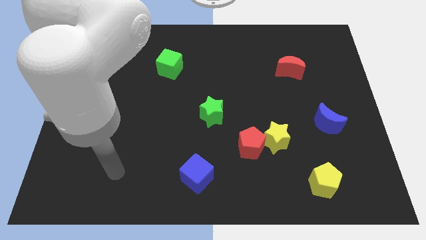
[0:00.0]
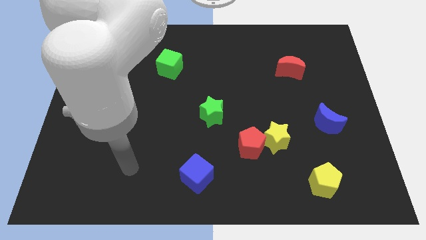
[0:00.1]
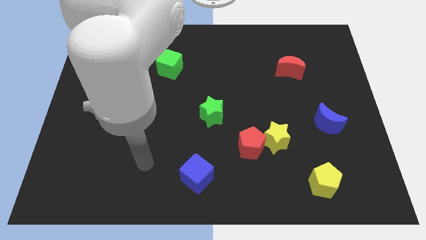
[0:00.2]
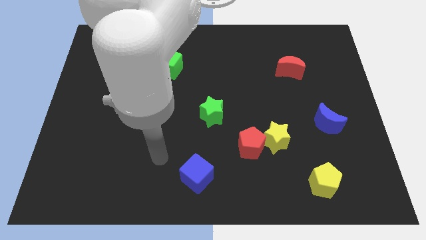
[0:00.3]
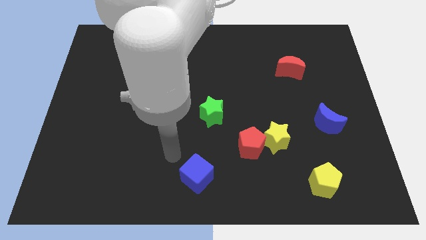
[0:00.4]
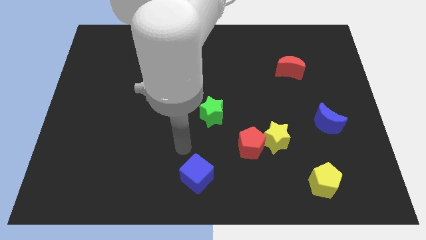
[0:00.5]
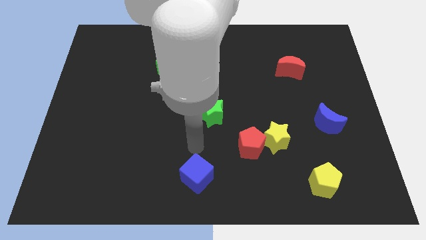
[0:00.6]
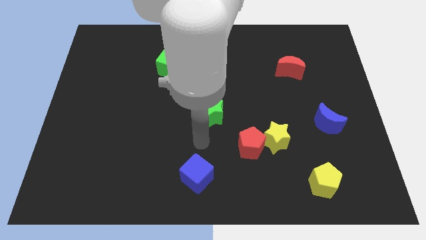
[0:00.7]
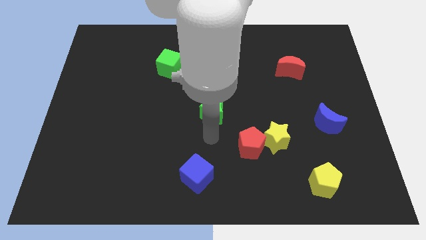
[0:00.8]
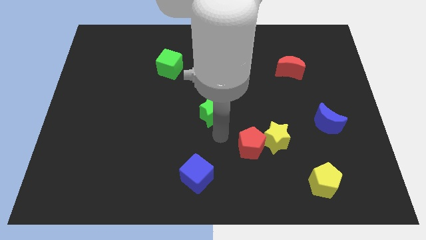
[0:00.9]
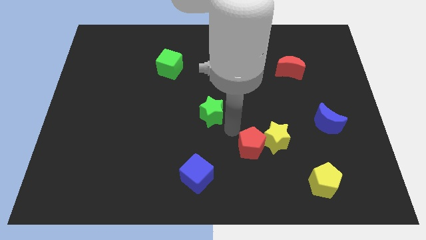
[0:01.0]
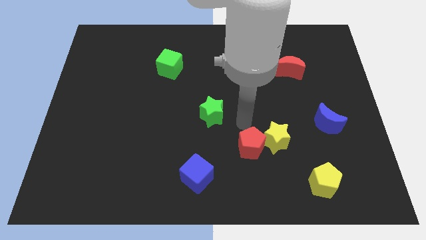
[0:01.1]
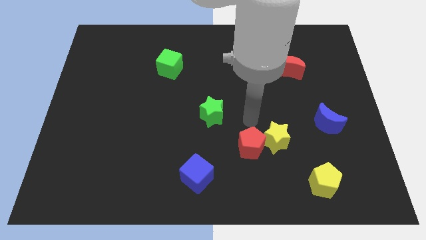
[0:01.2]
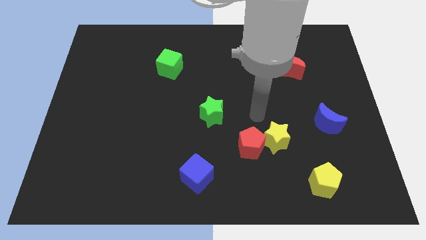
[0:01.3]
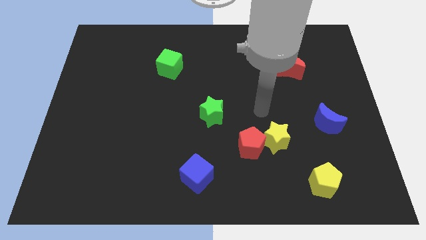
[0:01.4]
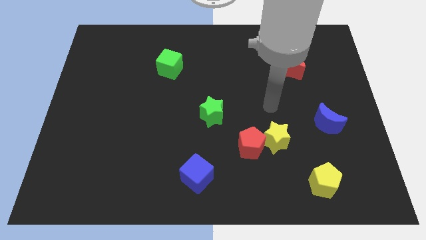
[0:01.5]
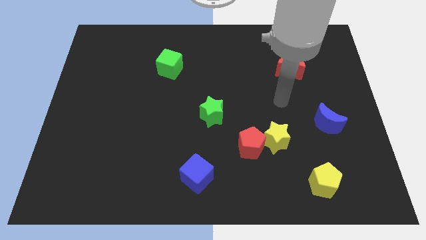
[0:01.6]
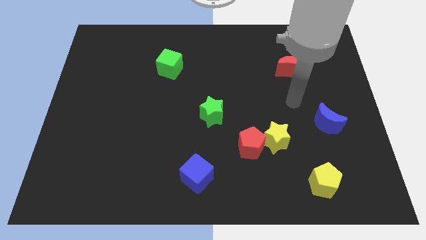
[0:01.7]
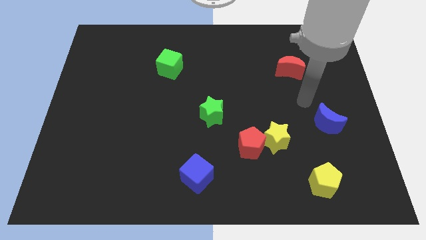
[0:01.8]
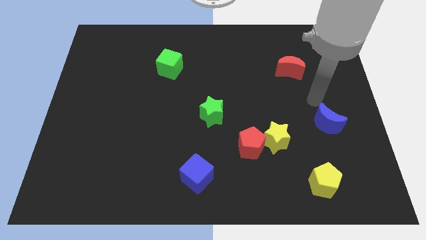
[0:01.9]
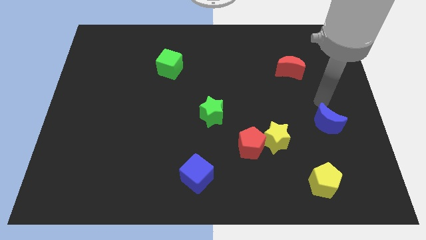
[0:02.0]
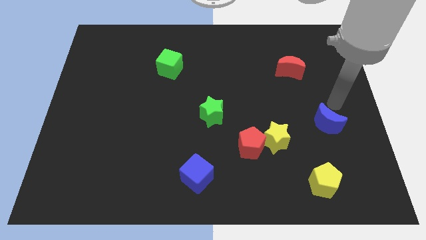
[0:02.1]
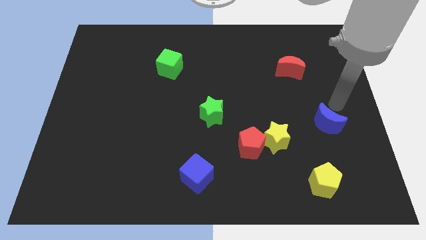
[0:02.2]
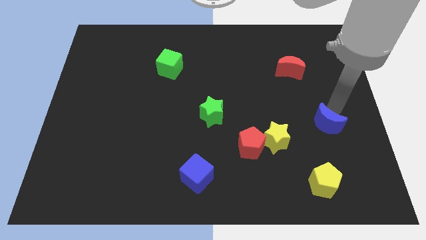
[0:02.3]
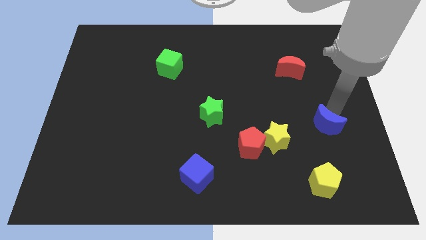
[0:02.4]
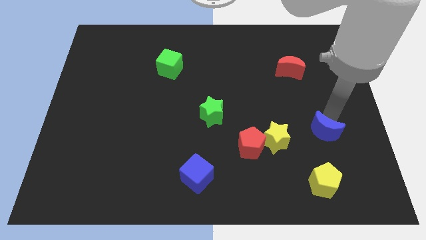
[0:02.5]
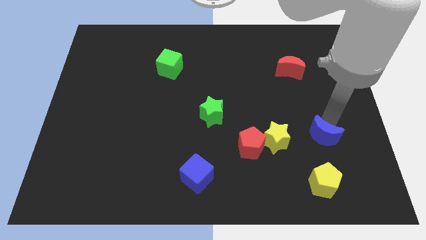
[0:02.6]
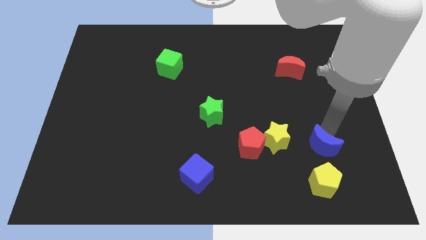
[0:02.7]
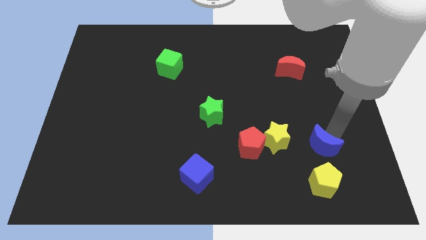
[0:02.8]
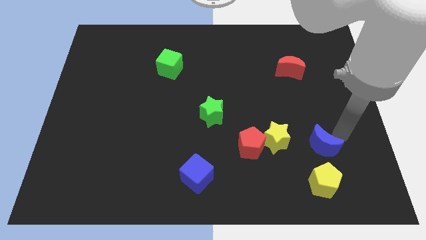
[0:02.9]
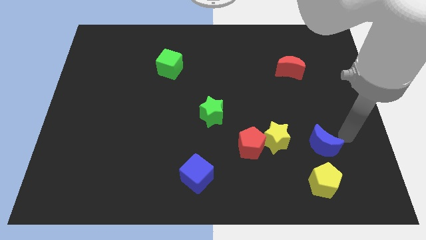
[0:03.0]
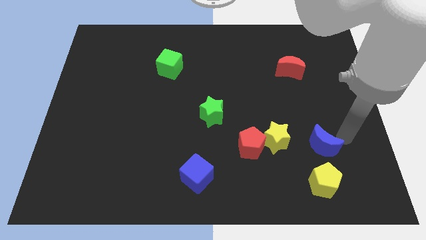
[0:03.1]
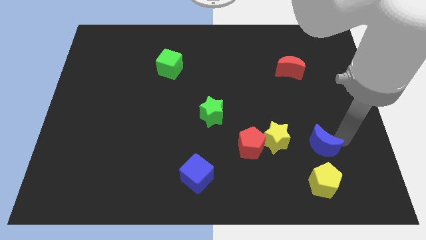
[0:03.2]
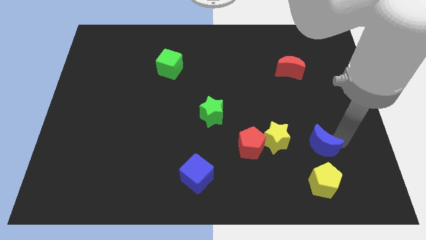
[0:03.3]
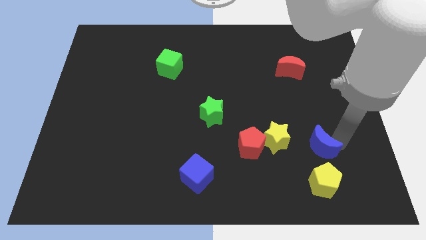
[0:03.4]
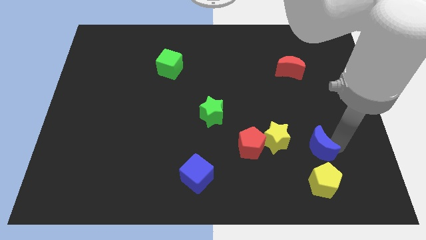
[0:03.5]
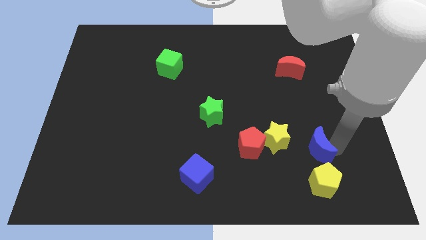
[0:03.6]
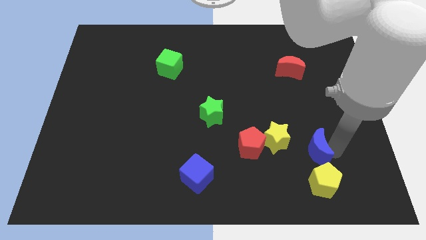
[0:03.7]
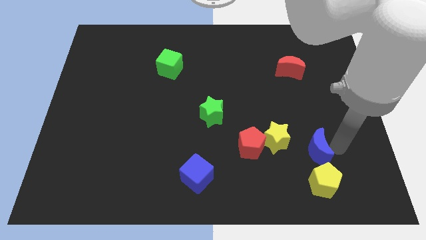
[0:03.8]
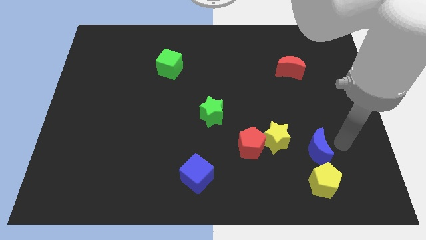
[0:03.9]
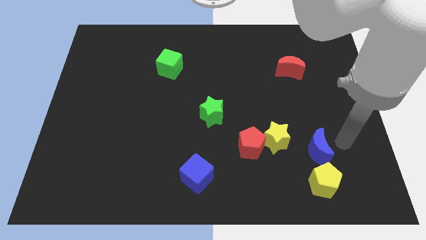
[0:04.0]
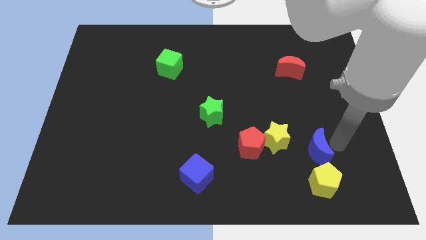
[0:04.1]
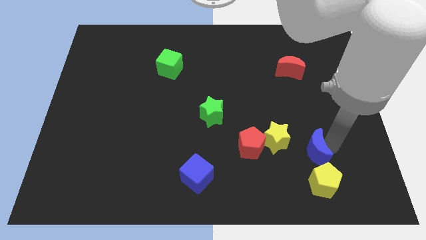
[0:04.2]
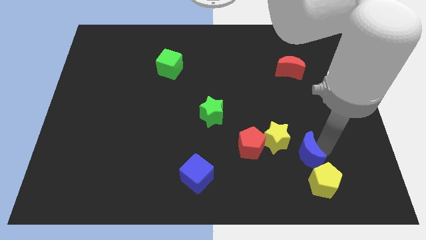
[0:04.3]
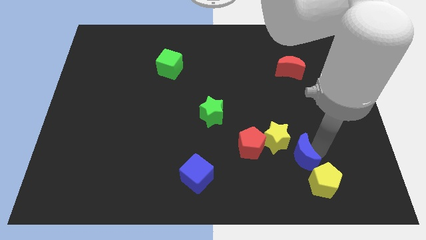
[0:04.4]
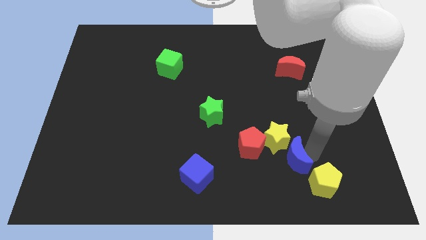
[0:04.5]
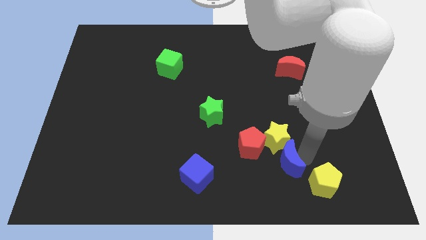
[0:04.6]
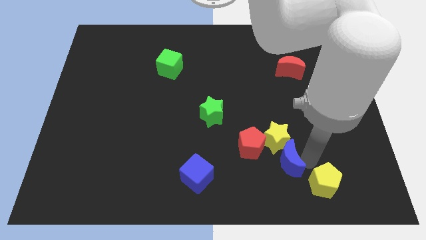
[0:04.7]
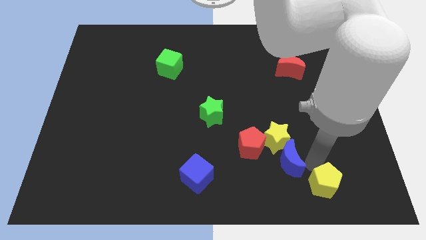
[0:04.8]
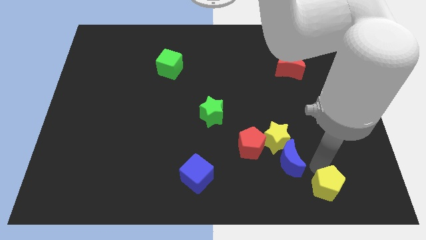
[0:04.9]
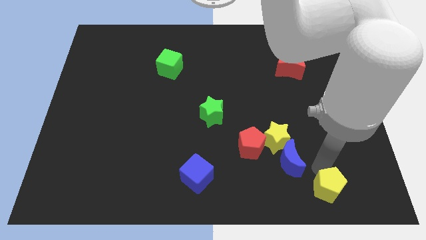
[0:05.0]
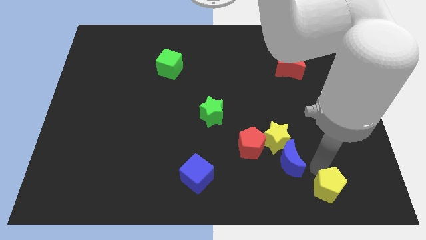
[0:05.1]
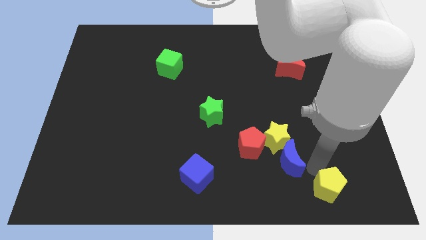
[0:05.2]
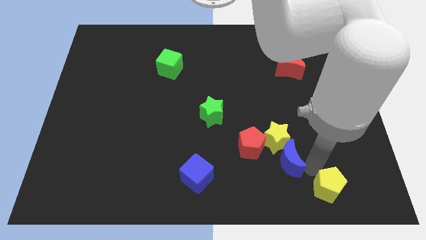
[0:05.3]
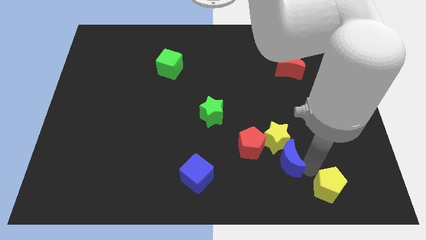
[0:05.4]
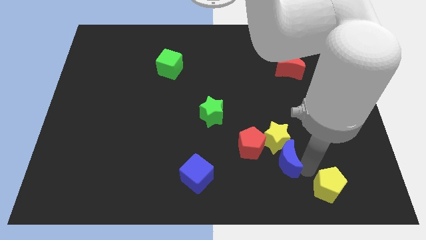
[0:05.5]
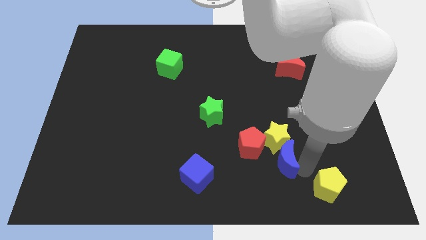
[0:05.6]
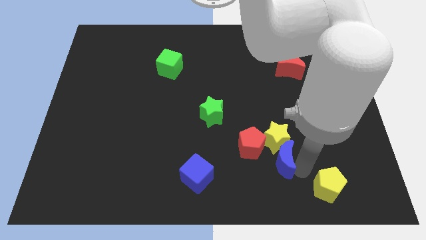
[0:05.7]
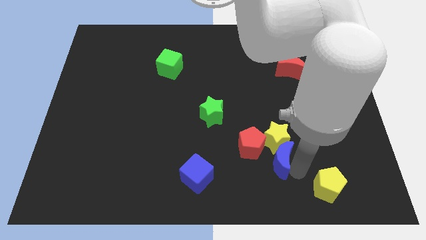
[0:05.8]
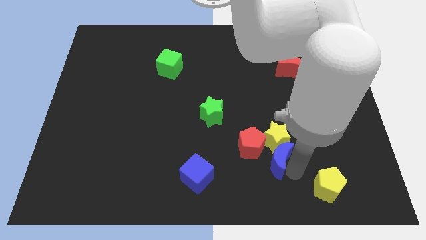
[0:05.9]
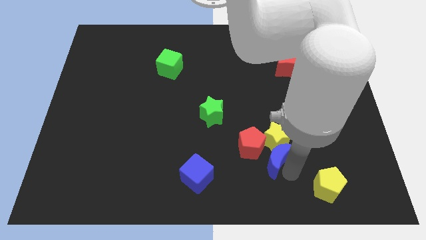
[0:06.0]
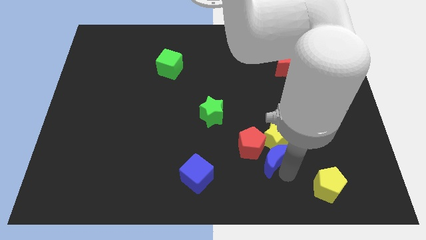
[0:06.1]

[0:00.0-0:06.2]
put the blue moon close to the red pentagon
